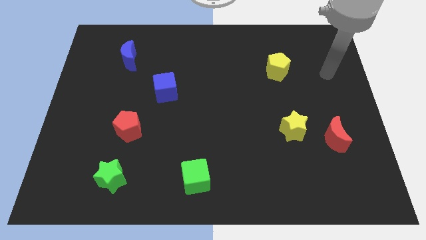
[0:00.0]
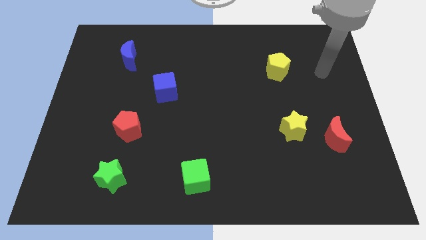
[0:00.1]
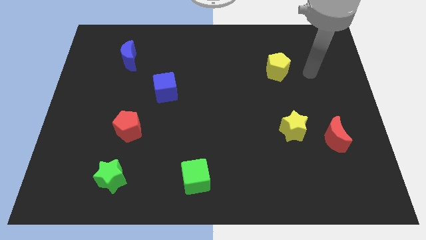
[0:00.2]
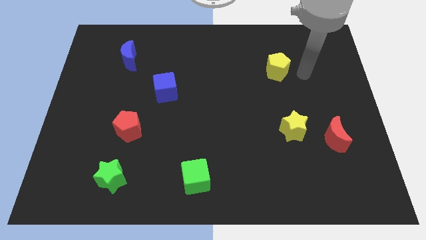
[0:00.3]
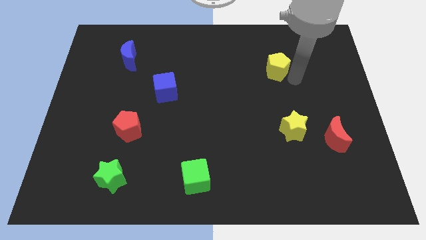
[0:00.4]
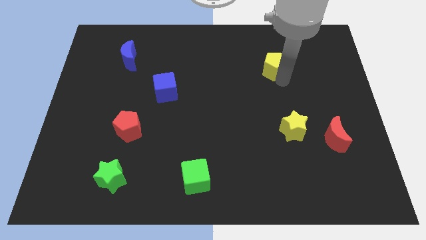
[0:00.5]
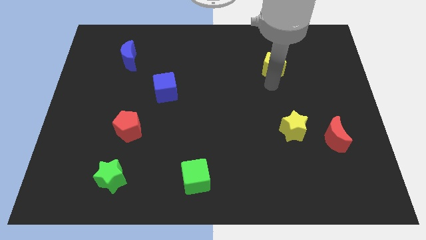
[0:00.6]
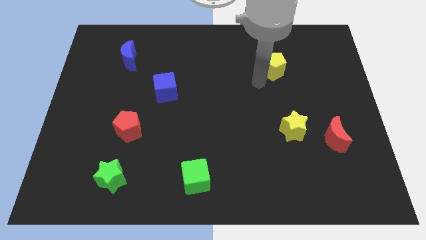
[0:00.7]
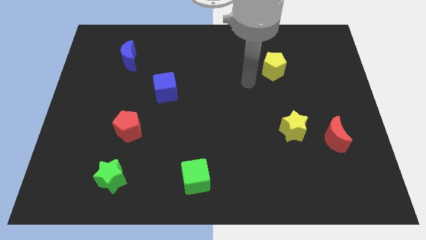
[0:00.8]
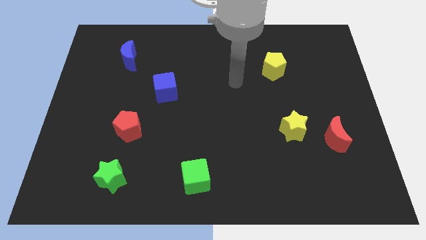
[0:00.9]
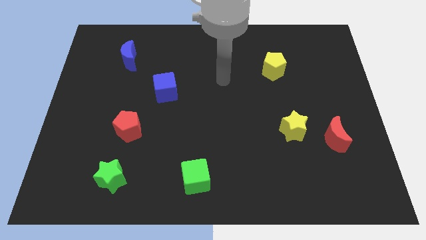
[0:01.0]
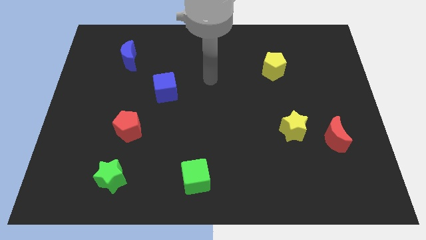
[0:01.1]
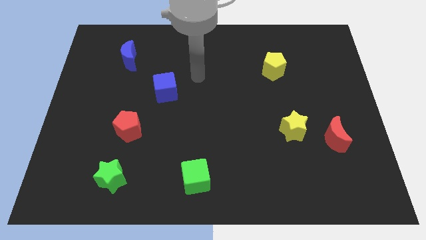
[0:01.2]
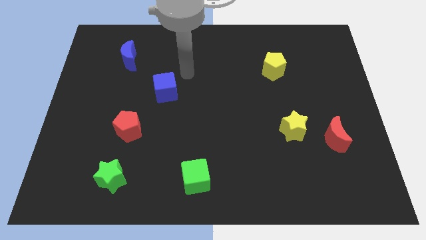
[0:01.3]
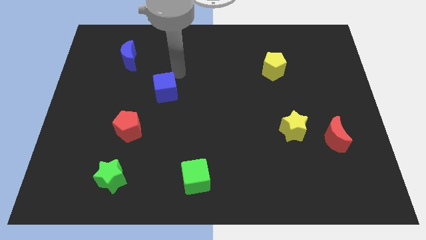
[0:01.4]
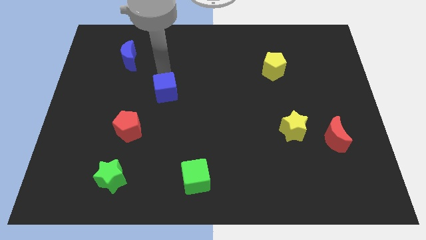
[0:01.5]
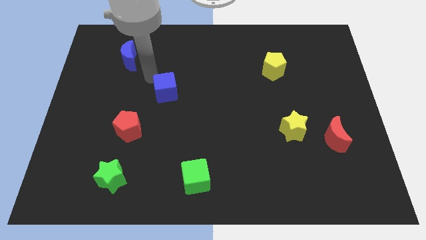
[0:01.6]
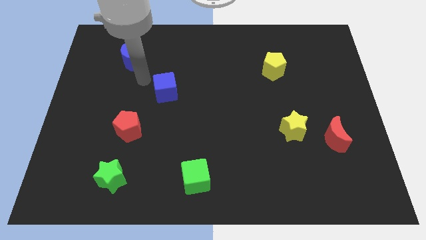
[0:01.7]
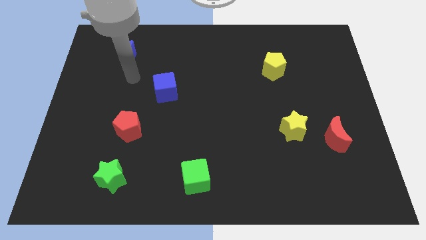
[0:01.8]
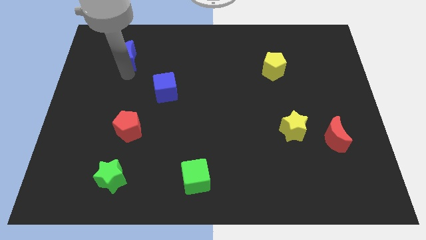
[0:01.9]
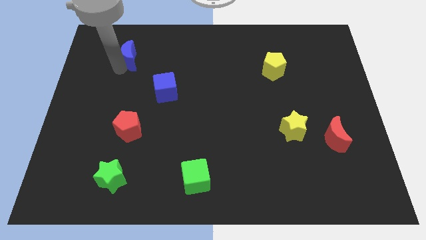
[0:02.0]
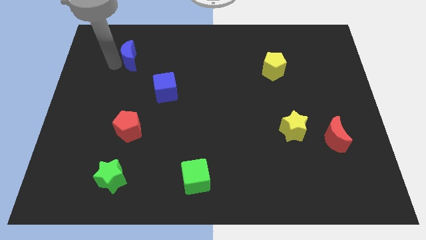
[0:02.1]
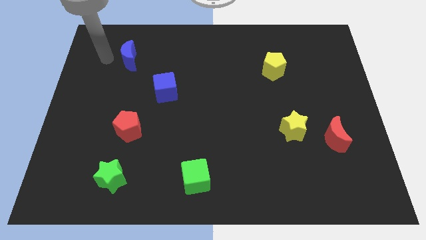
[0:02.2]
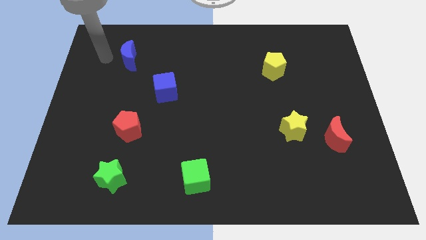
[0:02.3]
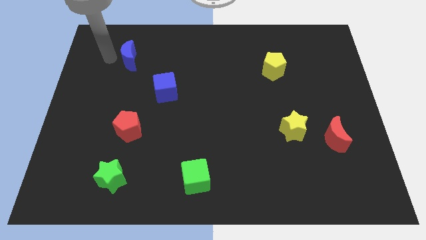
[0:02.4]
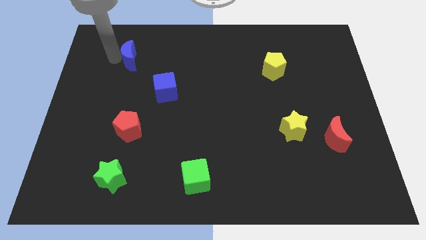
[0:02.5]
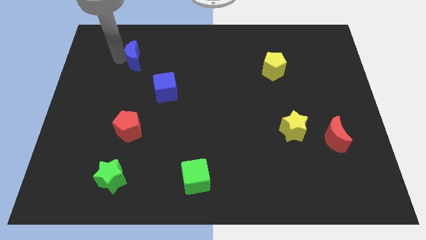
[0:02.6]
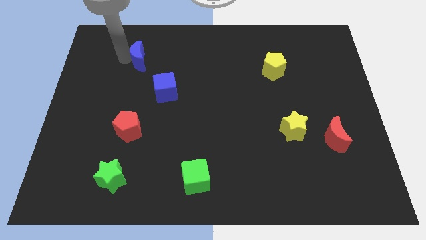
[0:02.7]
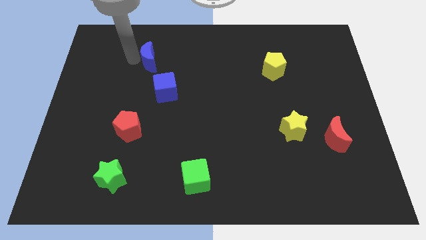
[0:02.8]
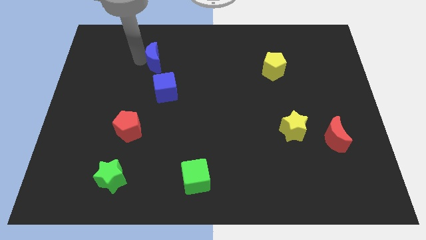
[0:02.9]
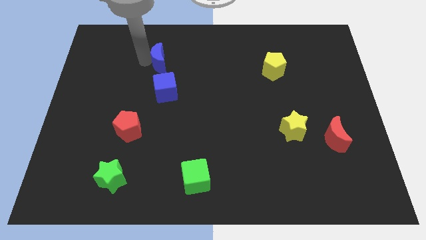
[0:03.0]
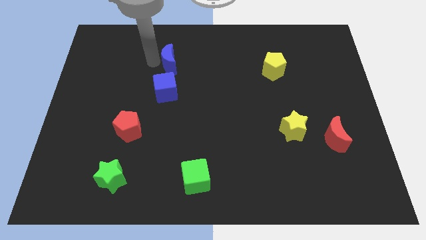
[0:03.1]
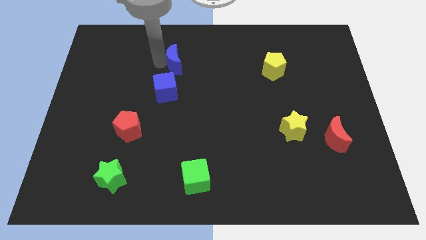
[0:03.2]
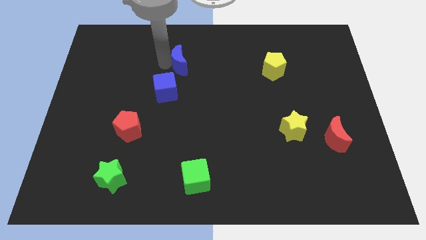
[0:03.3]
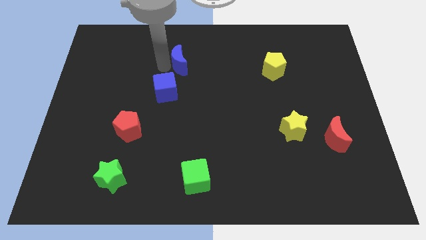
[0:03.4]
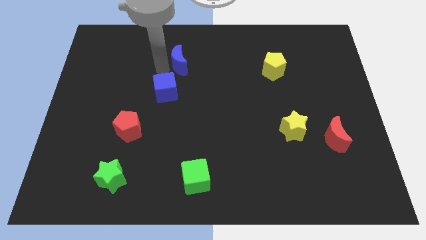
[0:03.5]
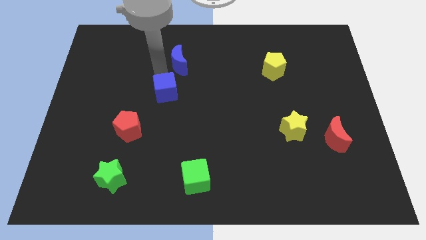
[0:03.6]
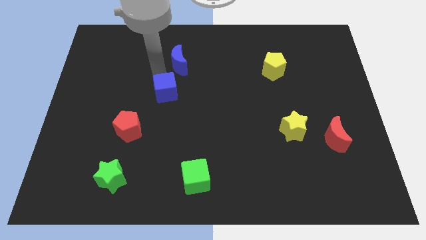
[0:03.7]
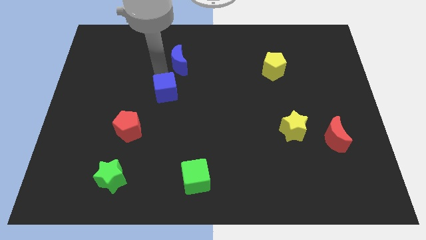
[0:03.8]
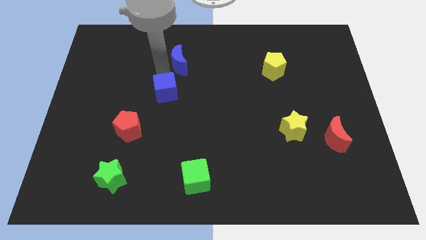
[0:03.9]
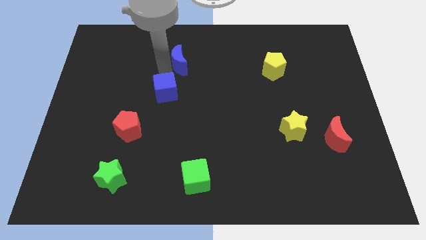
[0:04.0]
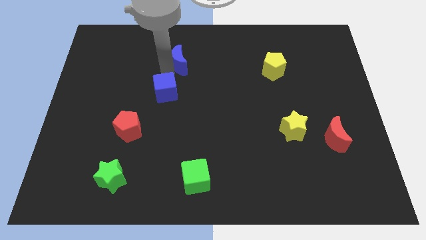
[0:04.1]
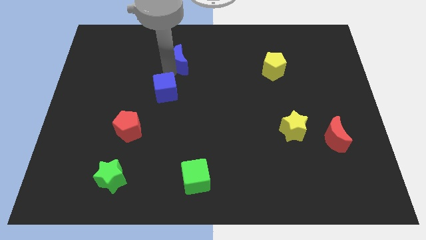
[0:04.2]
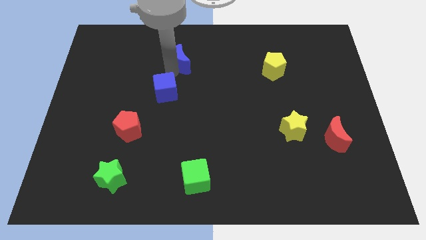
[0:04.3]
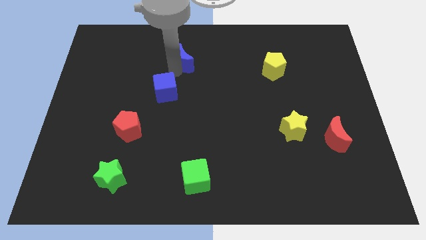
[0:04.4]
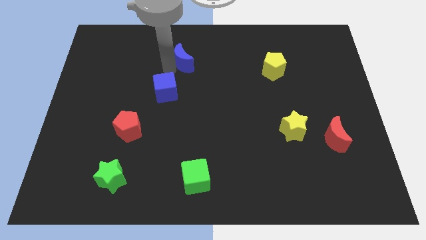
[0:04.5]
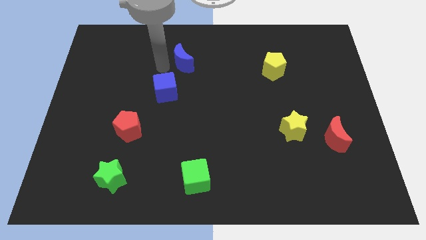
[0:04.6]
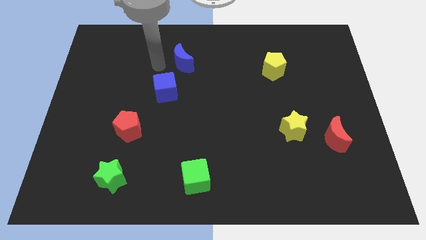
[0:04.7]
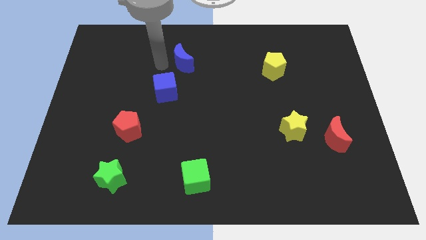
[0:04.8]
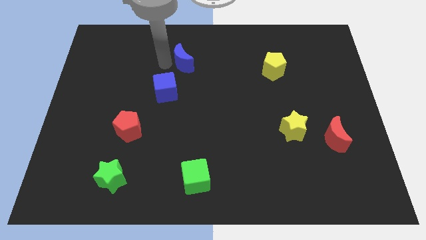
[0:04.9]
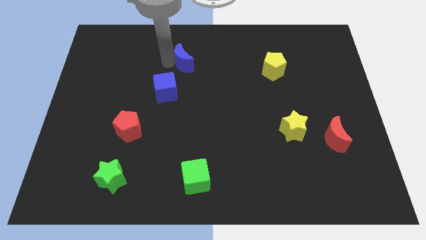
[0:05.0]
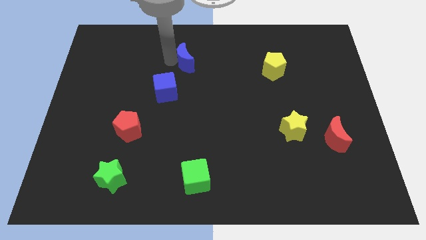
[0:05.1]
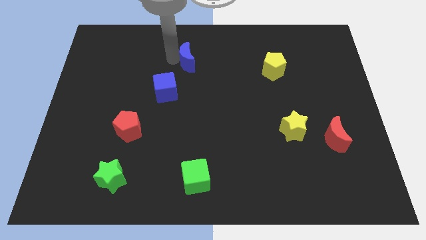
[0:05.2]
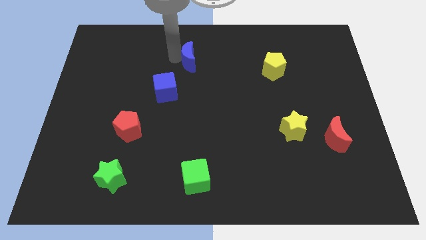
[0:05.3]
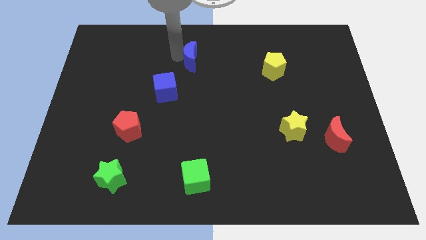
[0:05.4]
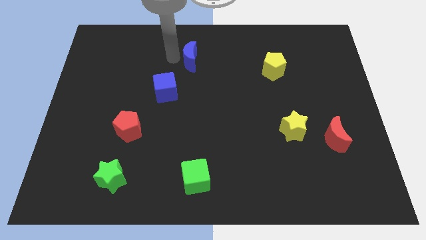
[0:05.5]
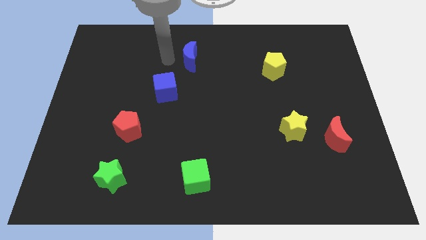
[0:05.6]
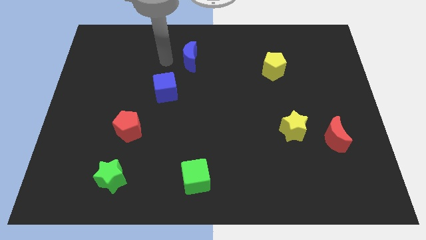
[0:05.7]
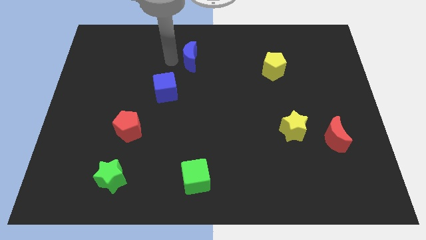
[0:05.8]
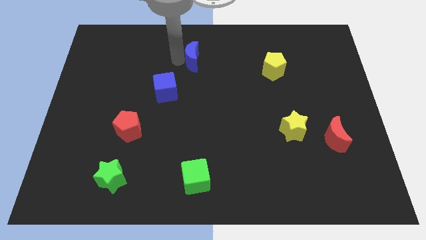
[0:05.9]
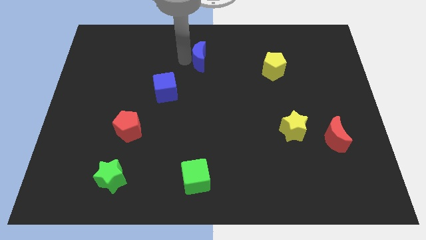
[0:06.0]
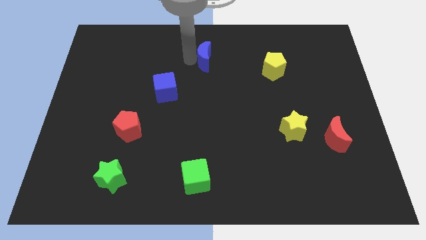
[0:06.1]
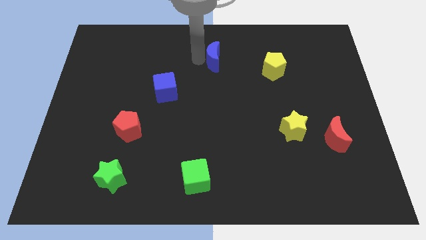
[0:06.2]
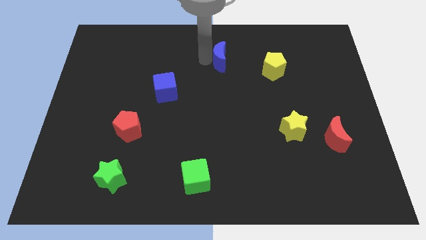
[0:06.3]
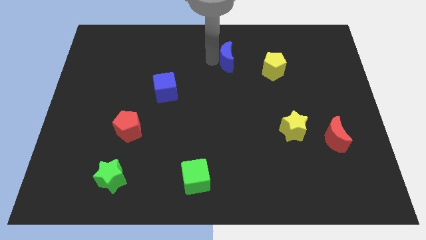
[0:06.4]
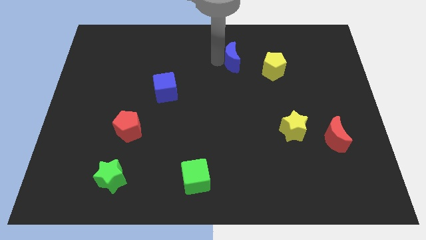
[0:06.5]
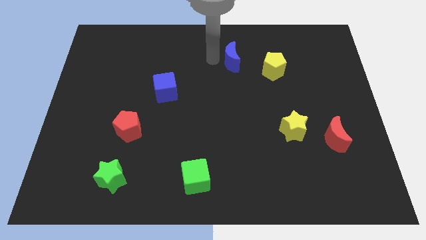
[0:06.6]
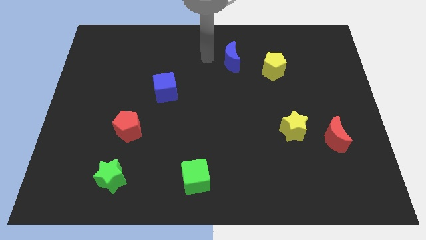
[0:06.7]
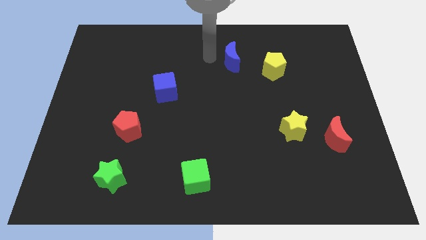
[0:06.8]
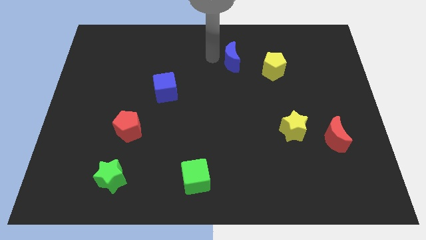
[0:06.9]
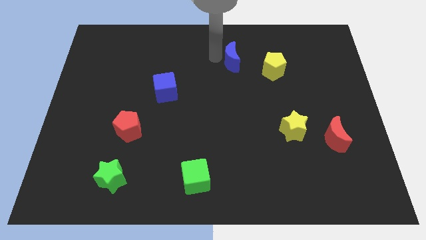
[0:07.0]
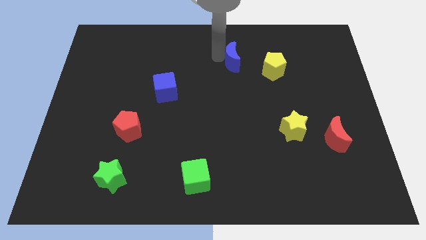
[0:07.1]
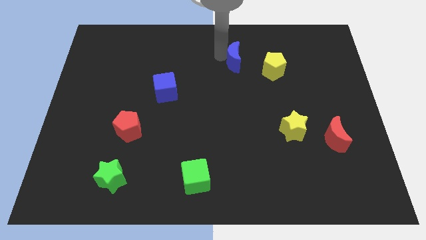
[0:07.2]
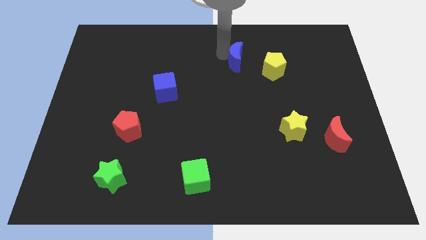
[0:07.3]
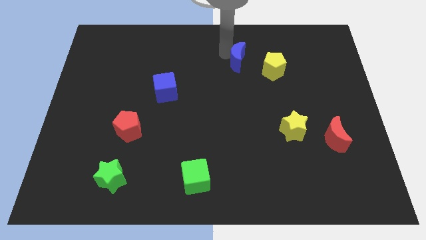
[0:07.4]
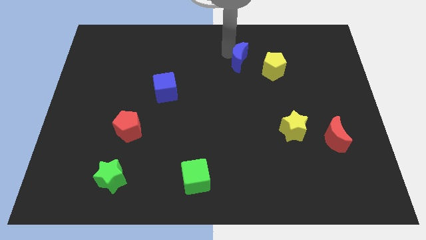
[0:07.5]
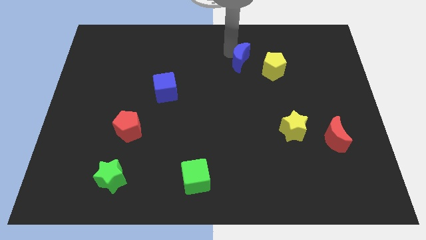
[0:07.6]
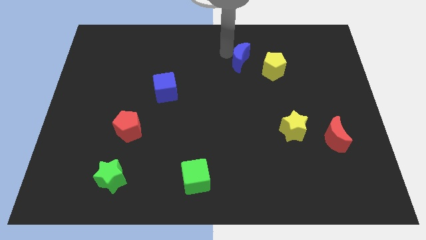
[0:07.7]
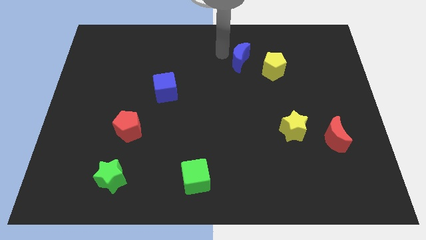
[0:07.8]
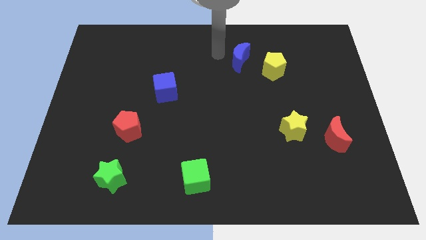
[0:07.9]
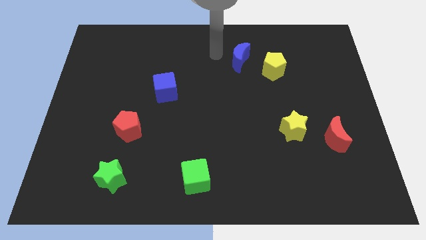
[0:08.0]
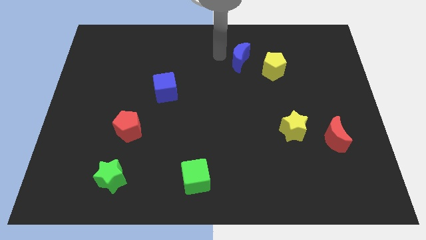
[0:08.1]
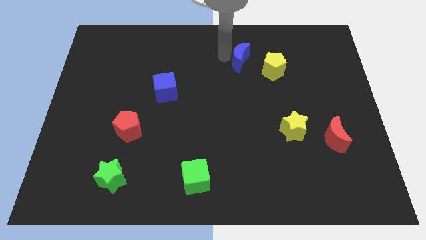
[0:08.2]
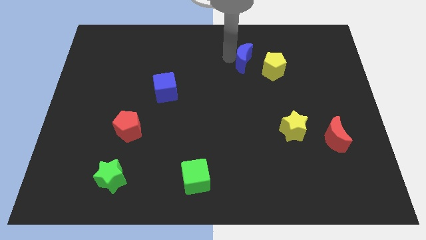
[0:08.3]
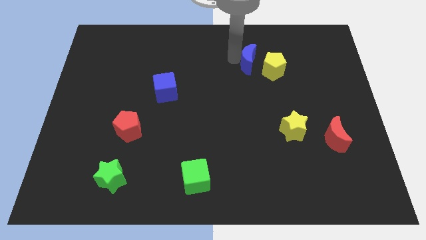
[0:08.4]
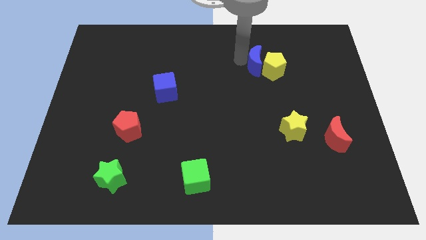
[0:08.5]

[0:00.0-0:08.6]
put the blue moon towards the yellow pentagon
